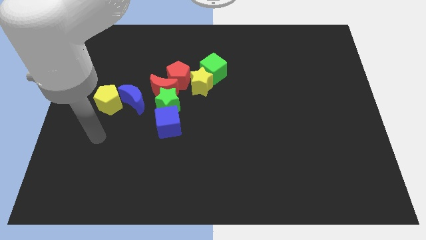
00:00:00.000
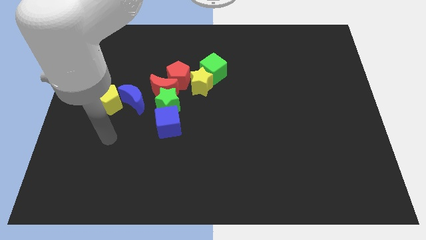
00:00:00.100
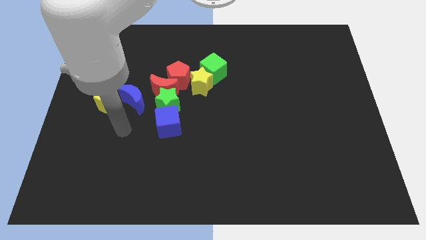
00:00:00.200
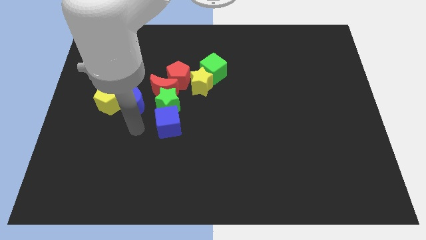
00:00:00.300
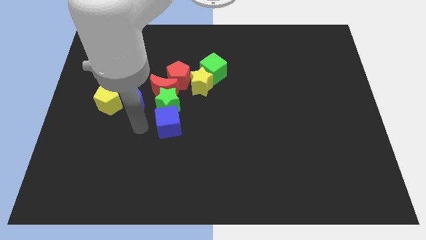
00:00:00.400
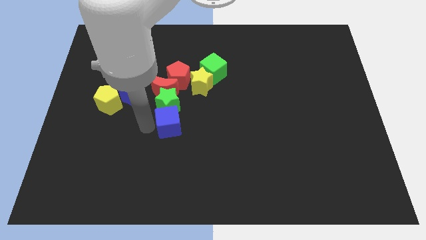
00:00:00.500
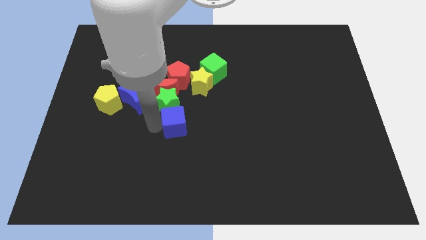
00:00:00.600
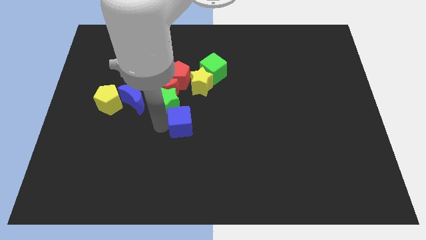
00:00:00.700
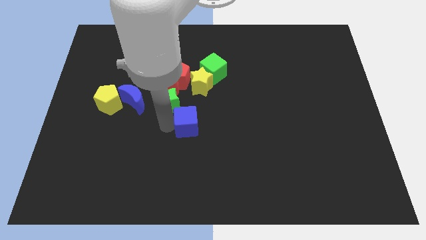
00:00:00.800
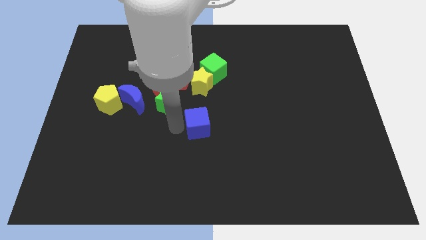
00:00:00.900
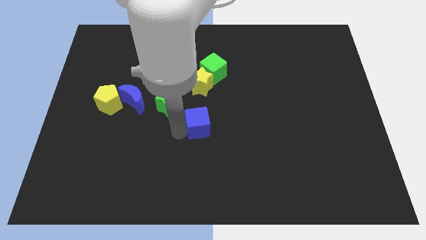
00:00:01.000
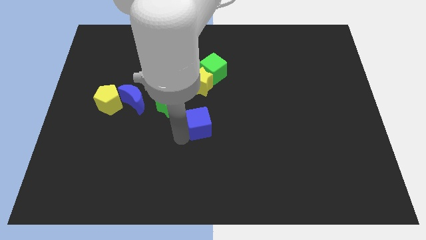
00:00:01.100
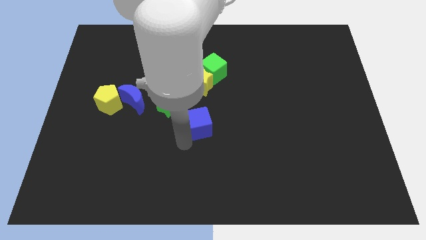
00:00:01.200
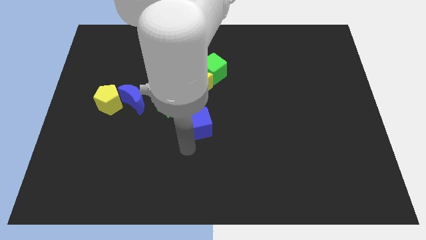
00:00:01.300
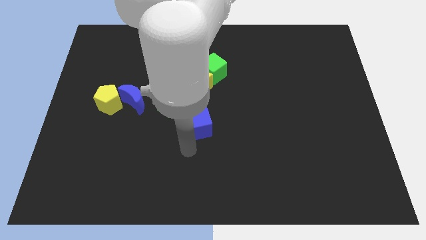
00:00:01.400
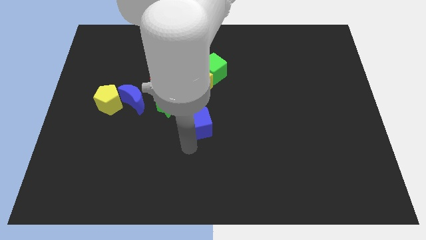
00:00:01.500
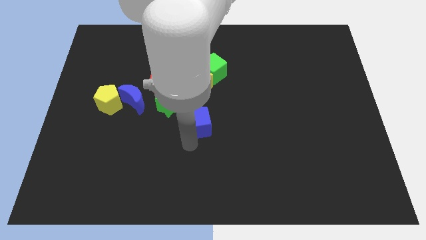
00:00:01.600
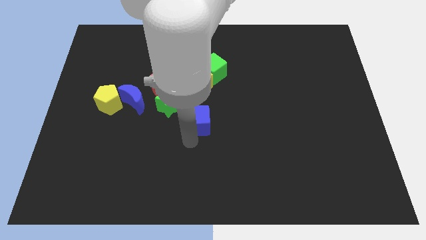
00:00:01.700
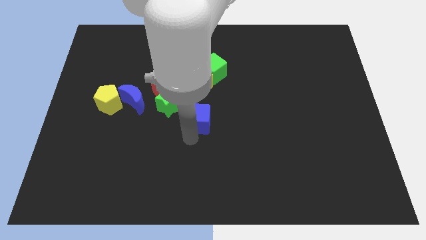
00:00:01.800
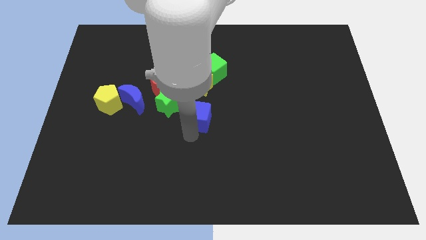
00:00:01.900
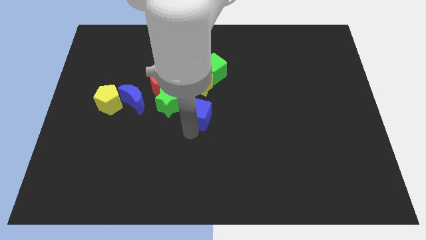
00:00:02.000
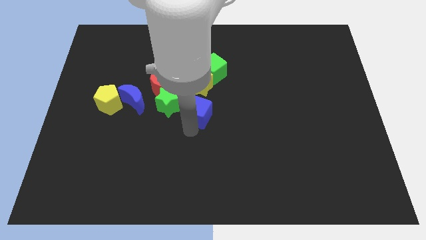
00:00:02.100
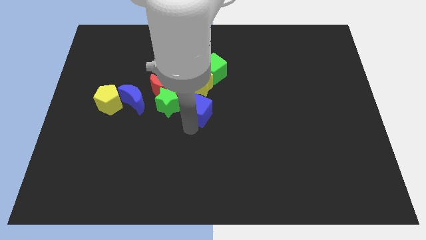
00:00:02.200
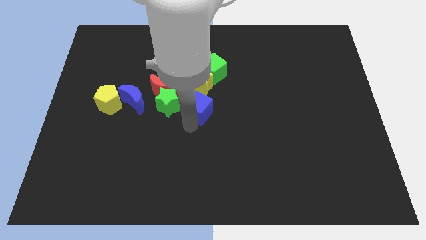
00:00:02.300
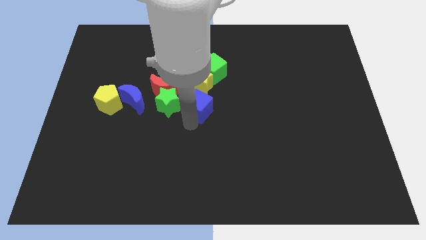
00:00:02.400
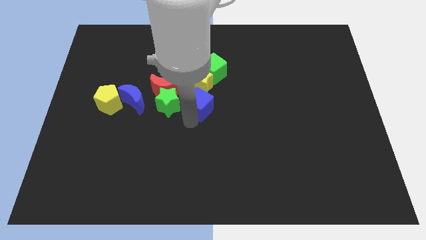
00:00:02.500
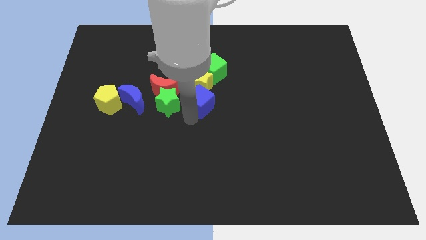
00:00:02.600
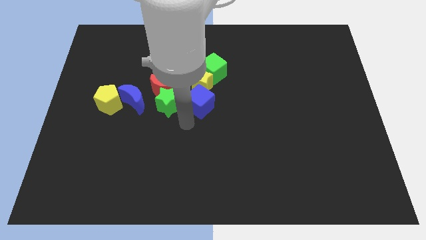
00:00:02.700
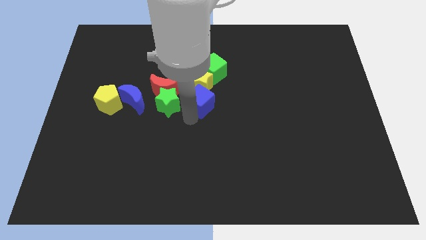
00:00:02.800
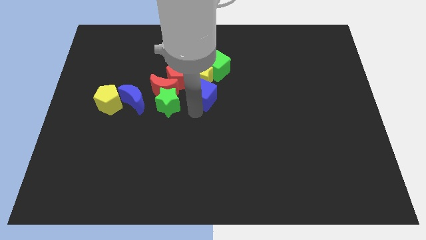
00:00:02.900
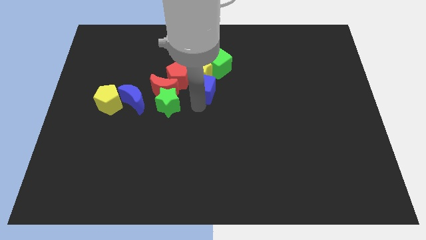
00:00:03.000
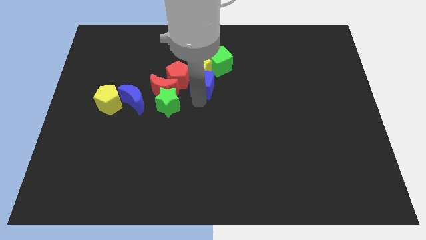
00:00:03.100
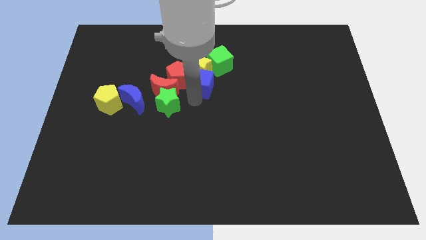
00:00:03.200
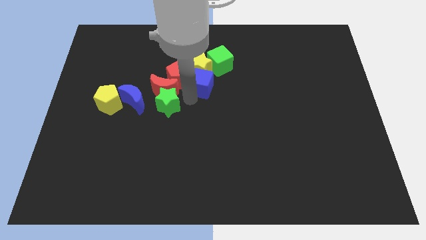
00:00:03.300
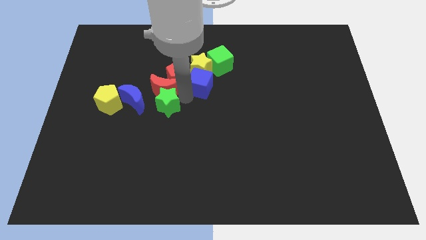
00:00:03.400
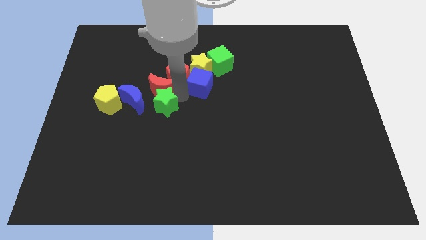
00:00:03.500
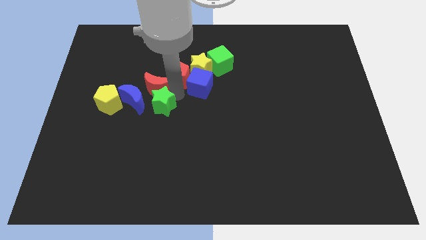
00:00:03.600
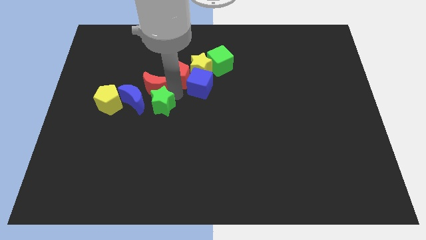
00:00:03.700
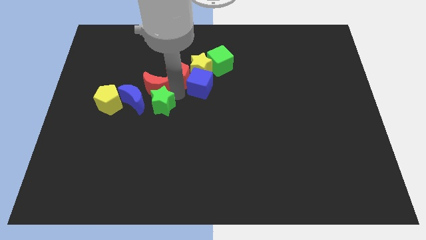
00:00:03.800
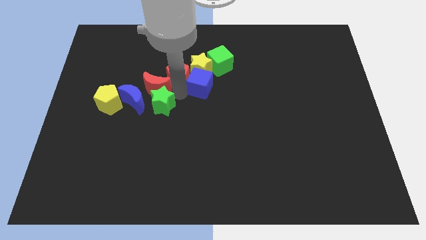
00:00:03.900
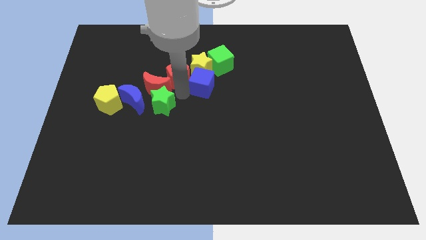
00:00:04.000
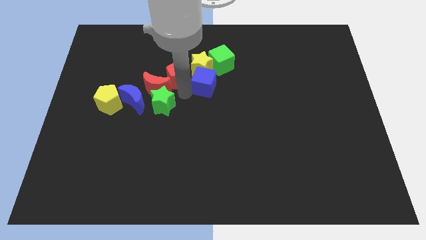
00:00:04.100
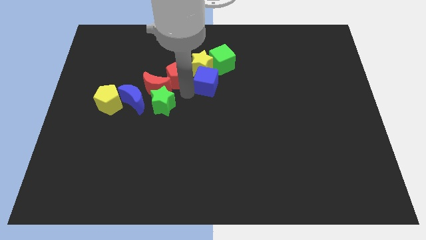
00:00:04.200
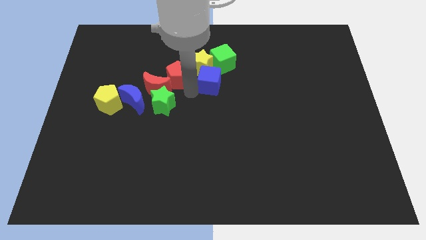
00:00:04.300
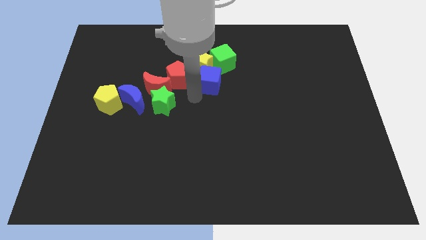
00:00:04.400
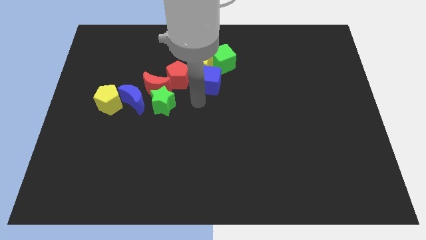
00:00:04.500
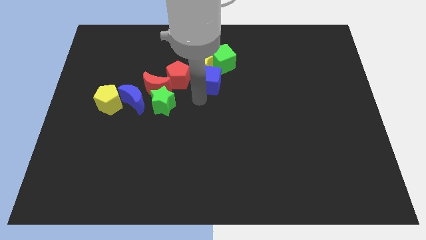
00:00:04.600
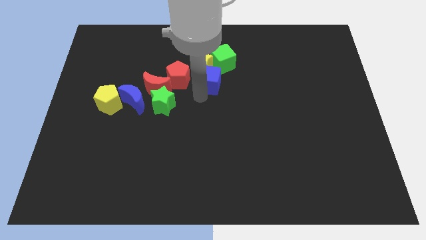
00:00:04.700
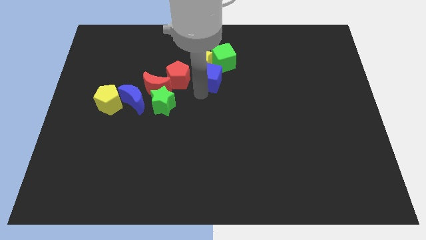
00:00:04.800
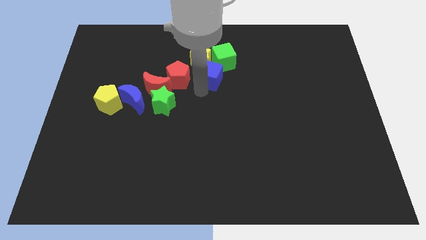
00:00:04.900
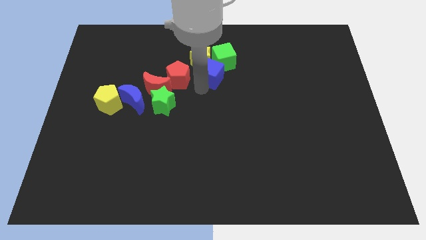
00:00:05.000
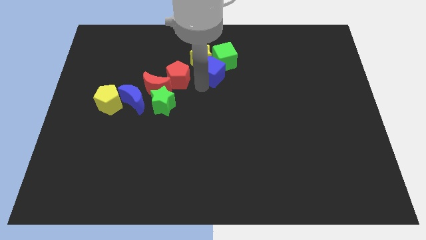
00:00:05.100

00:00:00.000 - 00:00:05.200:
put the blue cube to the green cube

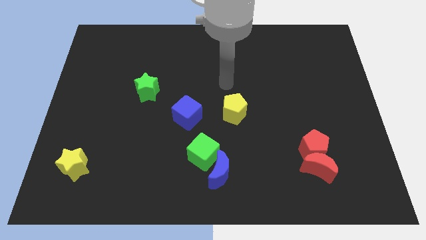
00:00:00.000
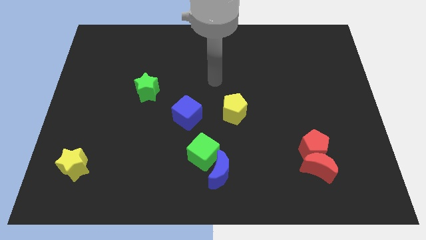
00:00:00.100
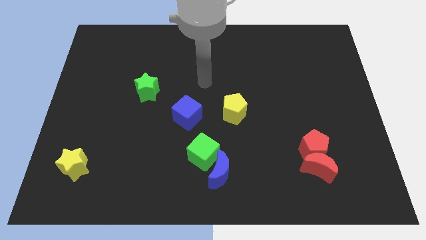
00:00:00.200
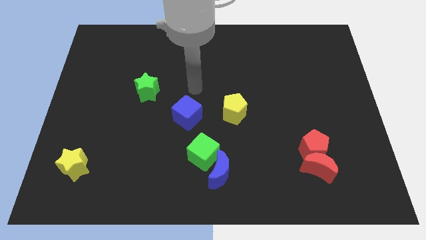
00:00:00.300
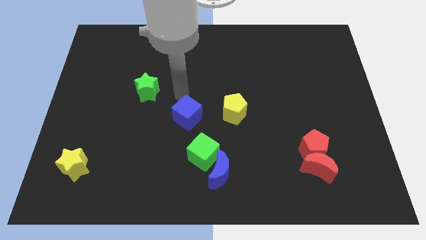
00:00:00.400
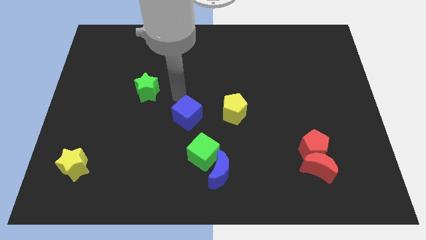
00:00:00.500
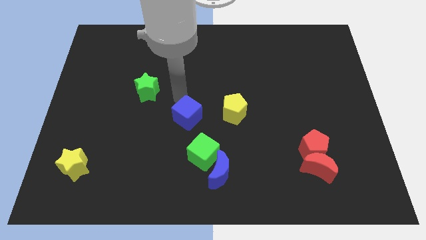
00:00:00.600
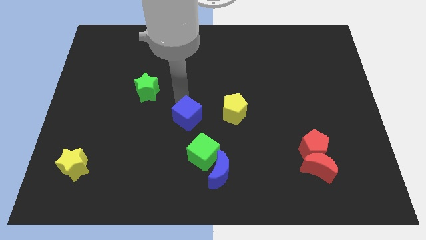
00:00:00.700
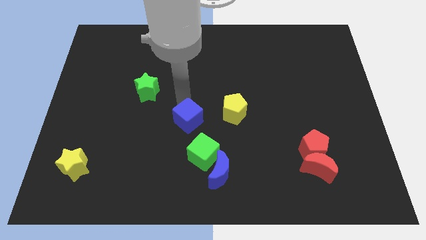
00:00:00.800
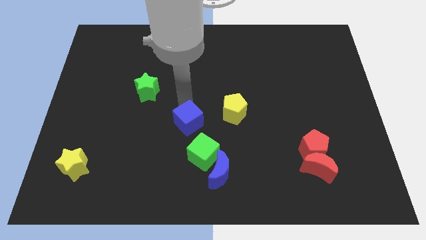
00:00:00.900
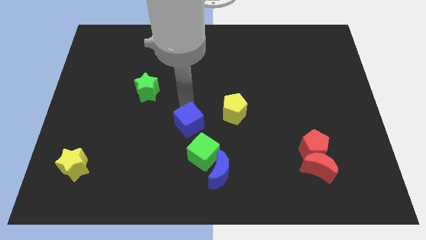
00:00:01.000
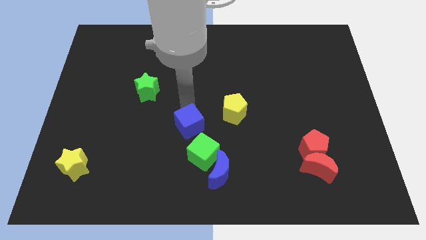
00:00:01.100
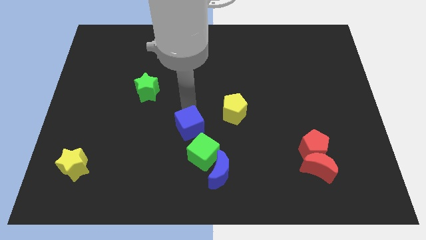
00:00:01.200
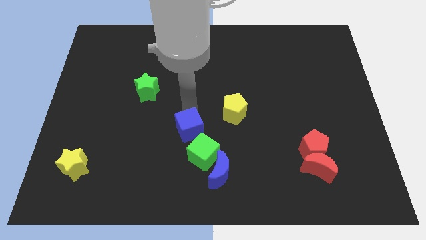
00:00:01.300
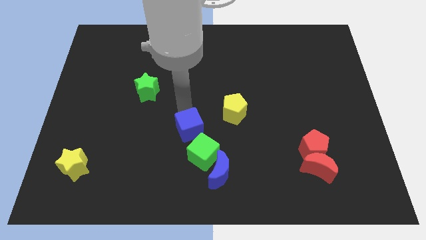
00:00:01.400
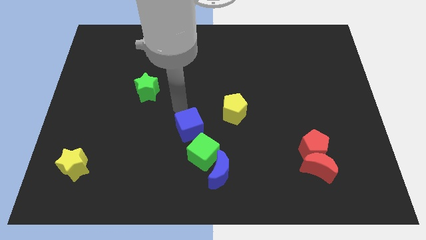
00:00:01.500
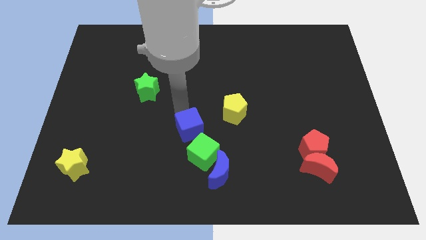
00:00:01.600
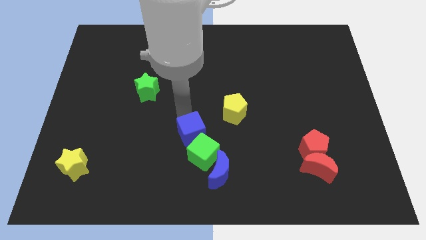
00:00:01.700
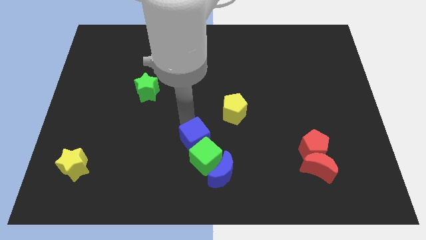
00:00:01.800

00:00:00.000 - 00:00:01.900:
push the blue cube close to the green cube
